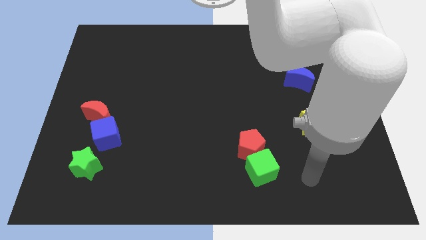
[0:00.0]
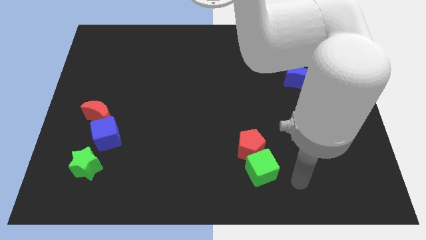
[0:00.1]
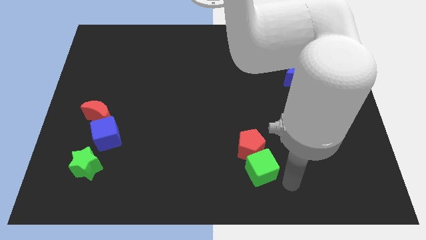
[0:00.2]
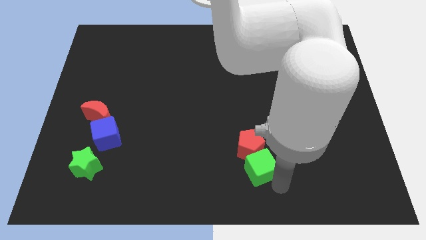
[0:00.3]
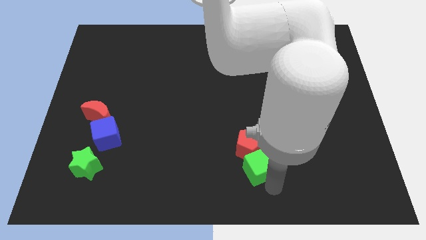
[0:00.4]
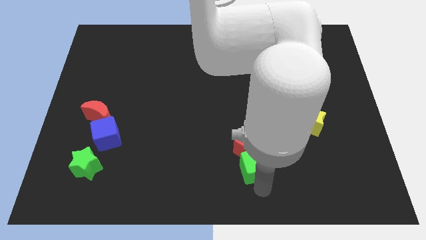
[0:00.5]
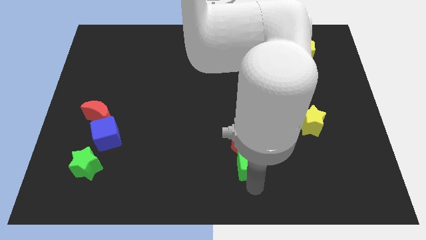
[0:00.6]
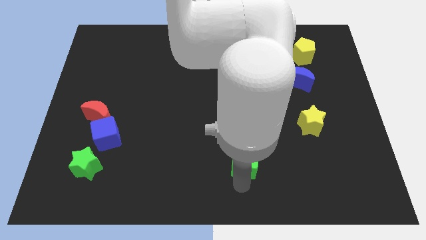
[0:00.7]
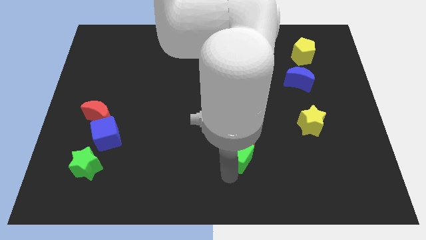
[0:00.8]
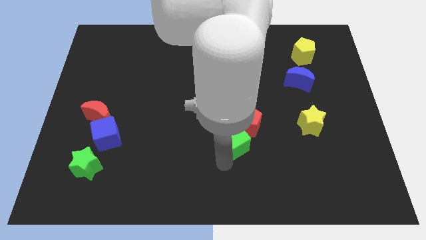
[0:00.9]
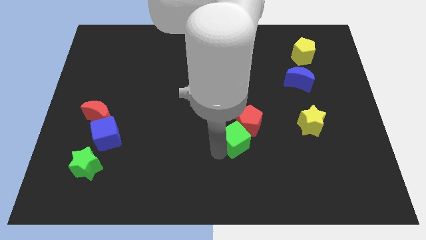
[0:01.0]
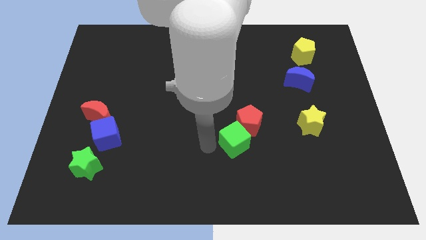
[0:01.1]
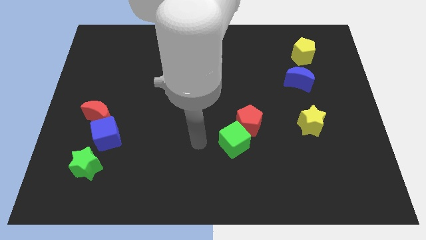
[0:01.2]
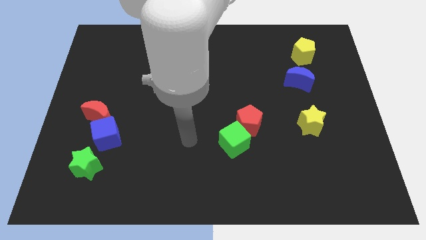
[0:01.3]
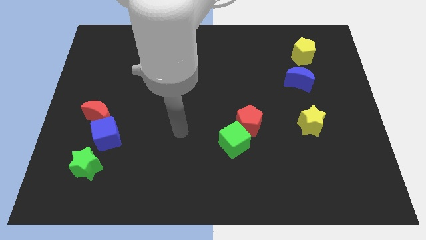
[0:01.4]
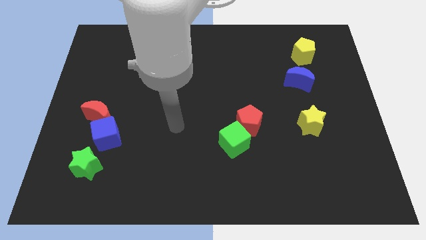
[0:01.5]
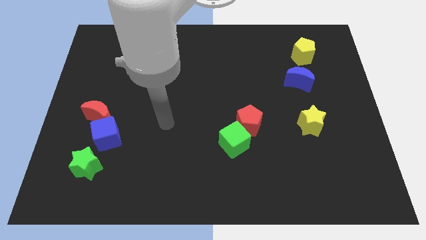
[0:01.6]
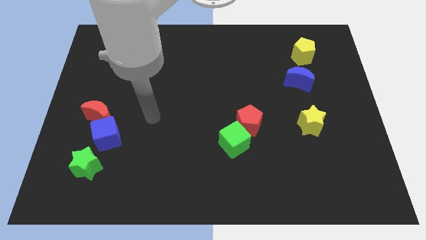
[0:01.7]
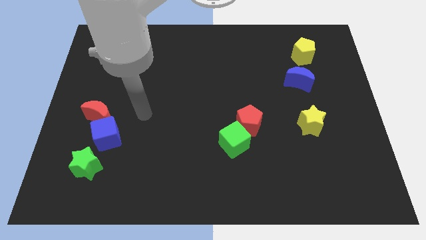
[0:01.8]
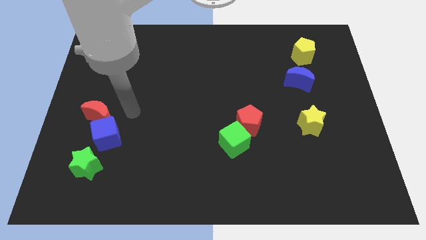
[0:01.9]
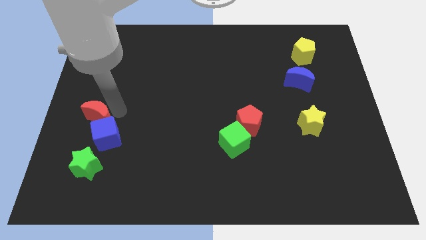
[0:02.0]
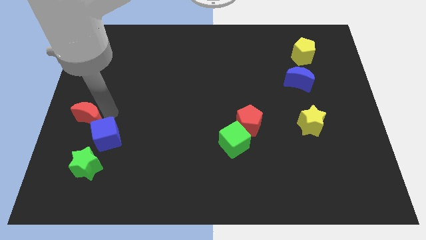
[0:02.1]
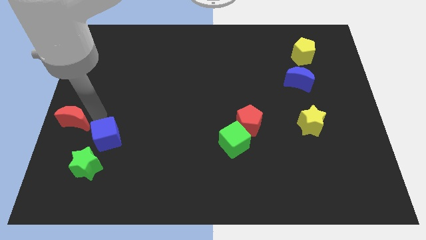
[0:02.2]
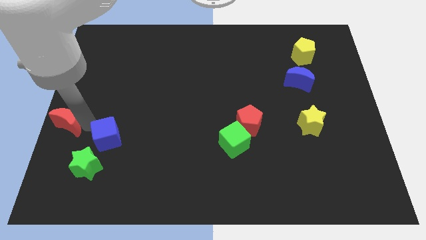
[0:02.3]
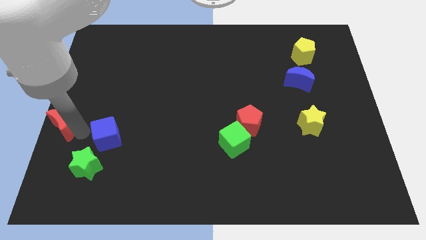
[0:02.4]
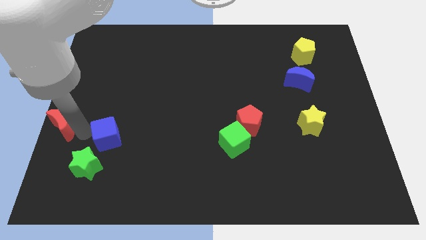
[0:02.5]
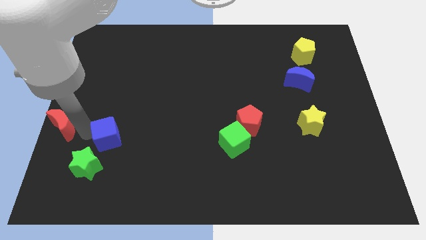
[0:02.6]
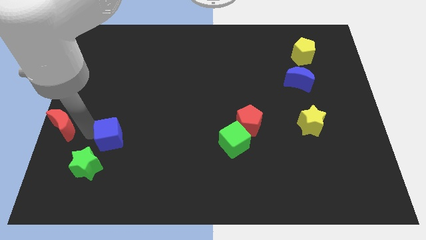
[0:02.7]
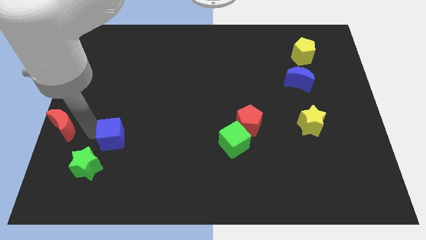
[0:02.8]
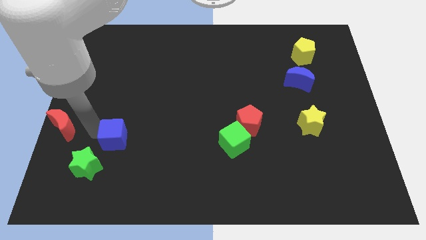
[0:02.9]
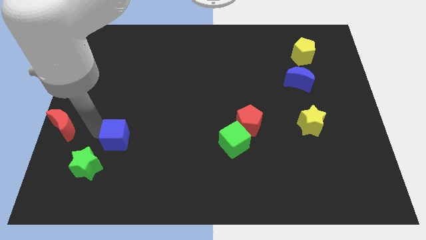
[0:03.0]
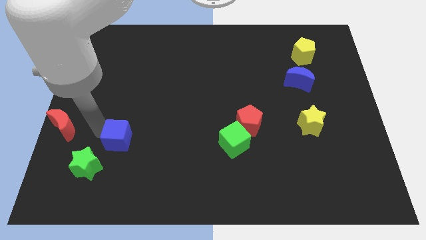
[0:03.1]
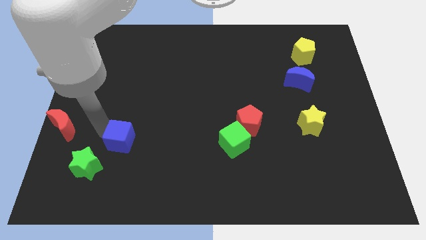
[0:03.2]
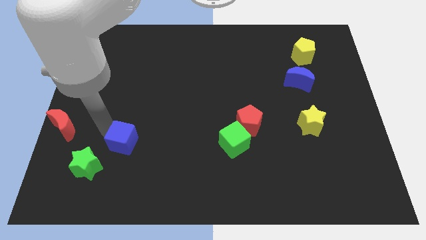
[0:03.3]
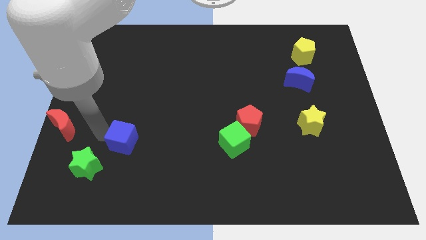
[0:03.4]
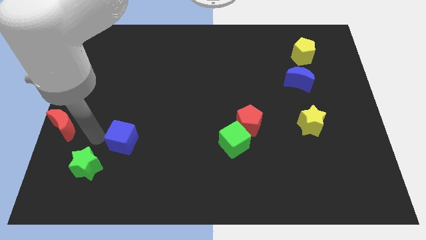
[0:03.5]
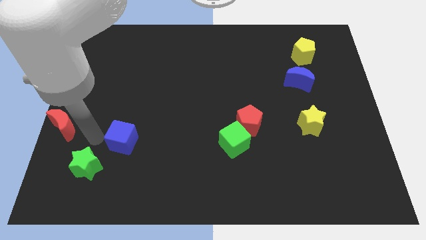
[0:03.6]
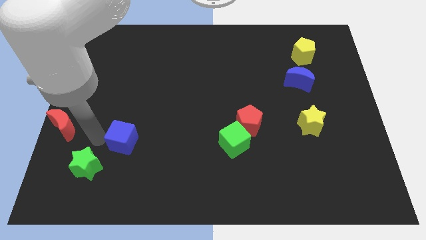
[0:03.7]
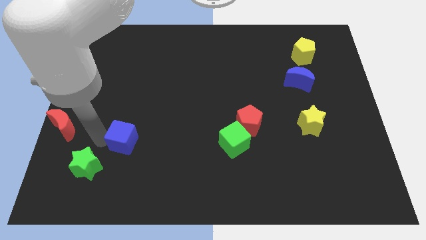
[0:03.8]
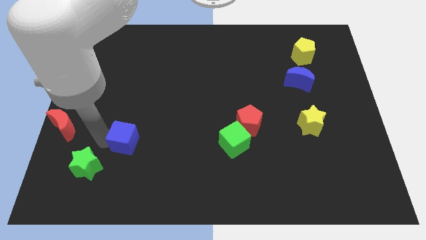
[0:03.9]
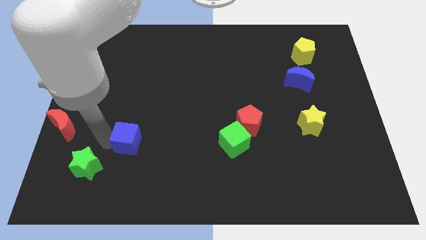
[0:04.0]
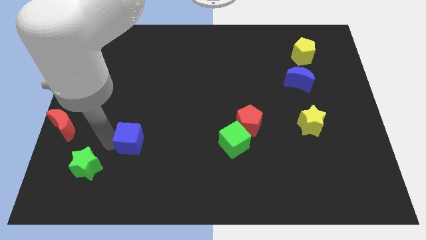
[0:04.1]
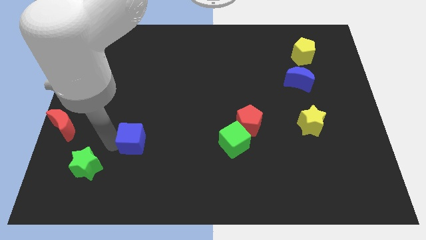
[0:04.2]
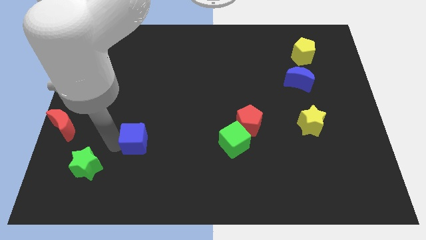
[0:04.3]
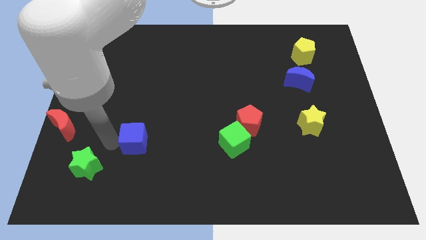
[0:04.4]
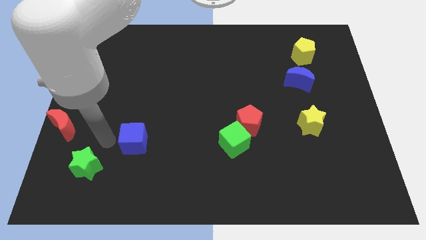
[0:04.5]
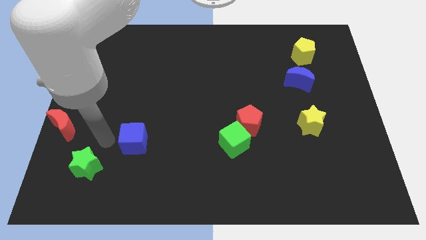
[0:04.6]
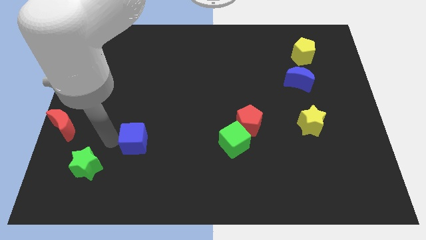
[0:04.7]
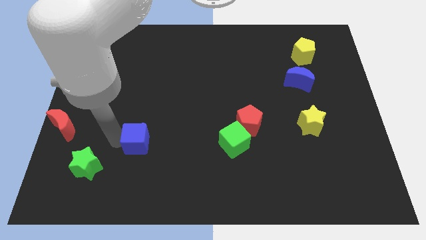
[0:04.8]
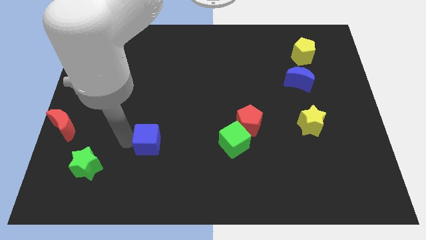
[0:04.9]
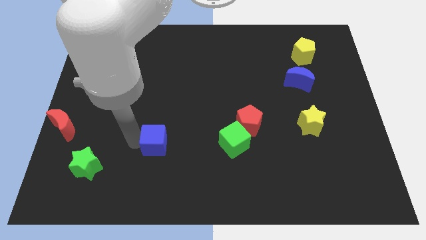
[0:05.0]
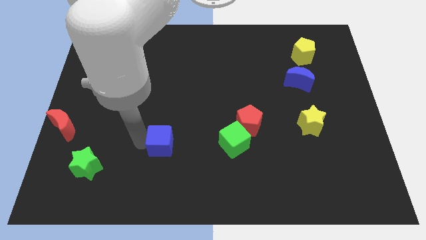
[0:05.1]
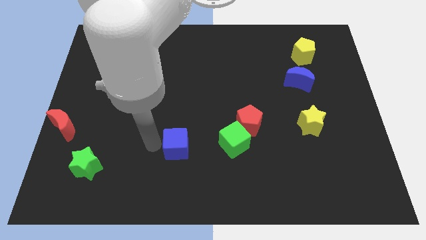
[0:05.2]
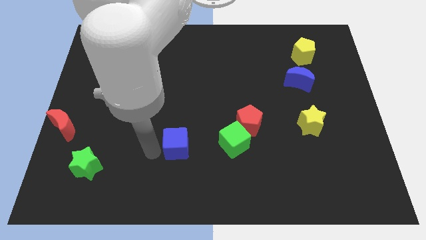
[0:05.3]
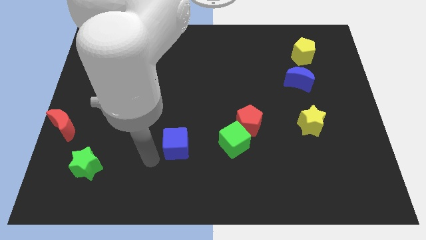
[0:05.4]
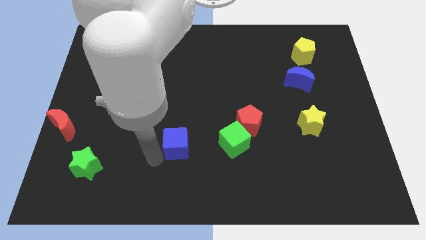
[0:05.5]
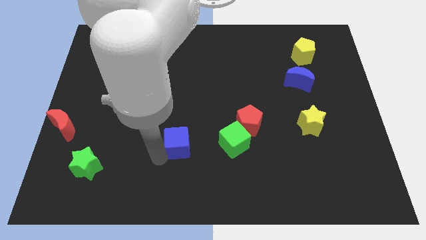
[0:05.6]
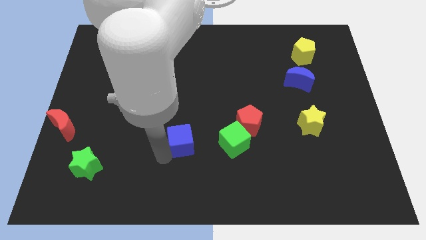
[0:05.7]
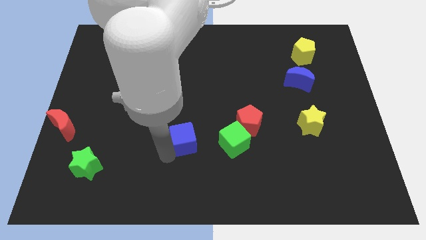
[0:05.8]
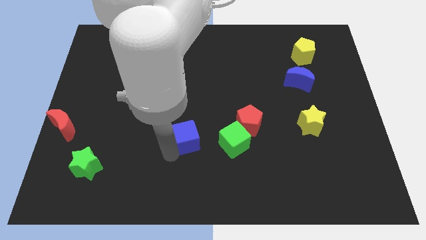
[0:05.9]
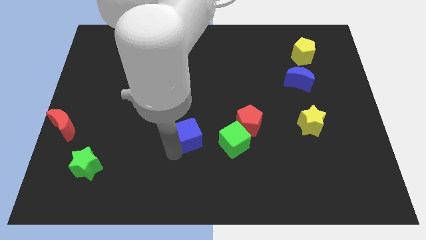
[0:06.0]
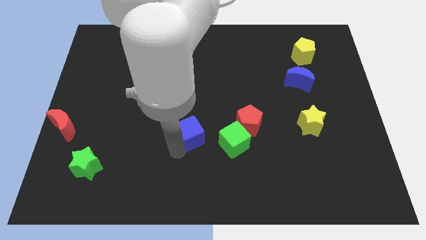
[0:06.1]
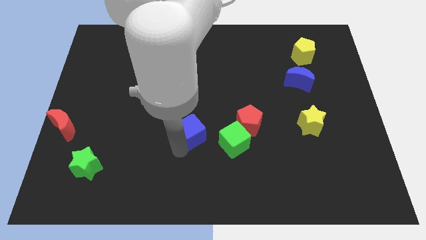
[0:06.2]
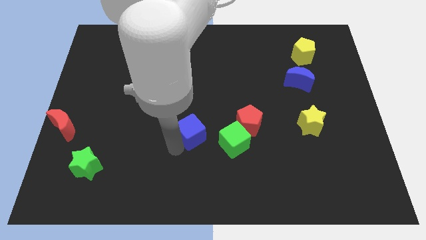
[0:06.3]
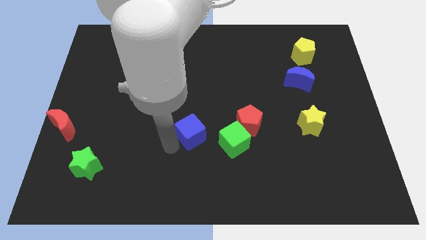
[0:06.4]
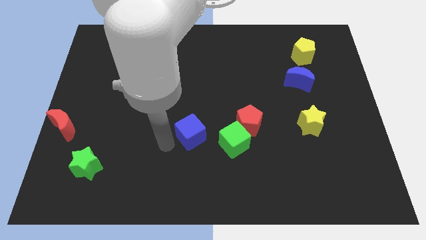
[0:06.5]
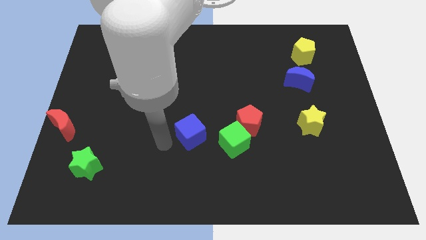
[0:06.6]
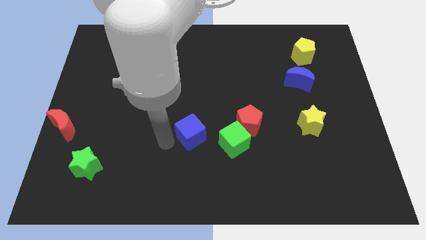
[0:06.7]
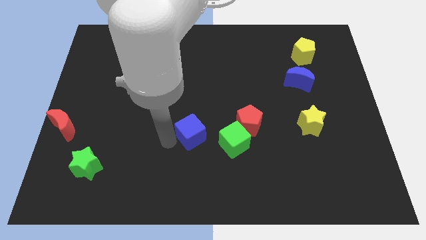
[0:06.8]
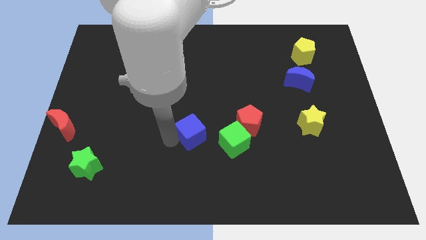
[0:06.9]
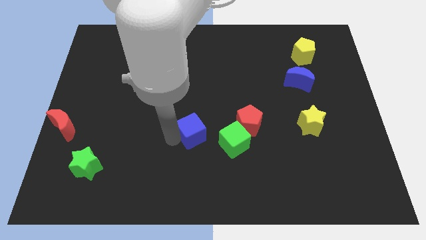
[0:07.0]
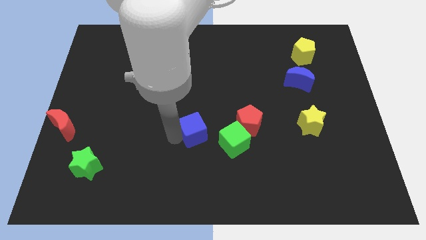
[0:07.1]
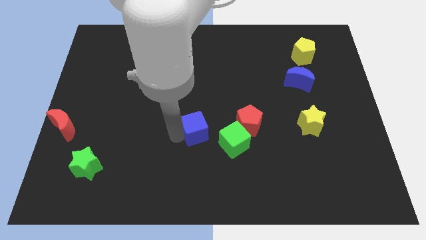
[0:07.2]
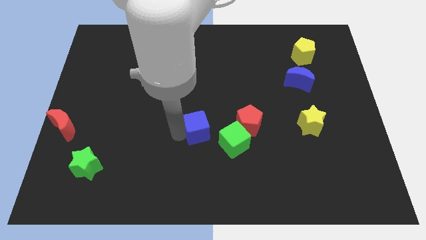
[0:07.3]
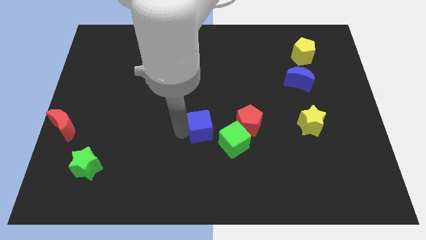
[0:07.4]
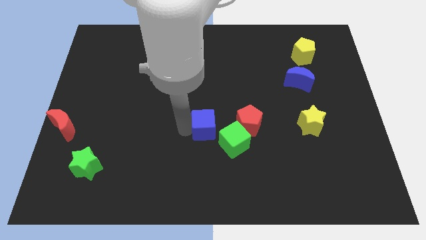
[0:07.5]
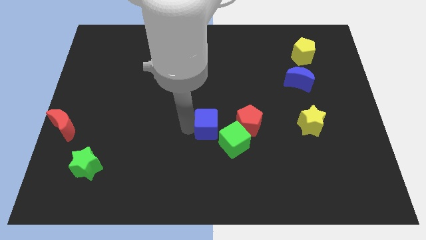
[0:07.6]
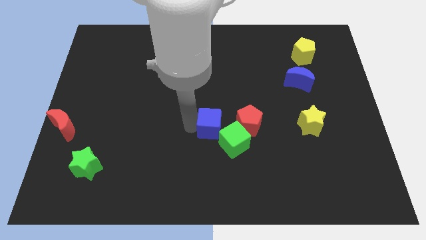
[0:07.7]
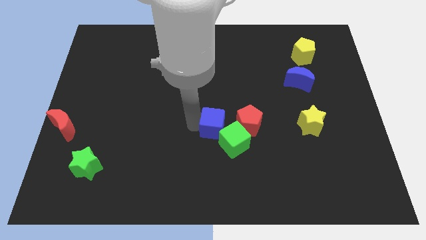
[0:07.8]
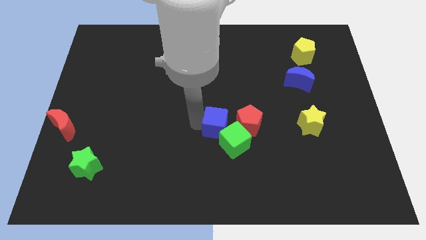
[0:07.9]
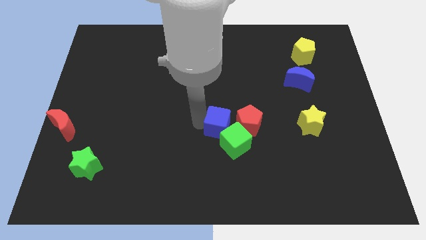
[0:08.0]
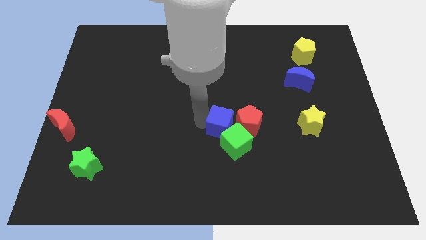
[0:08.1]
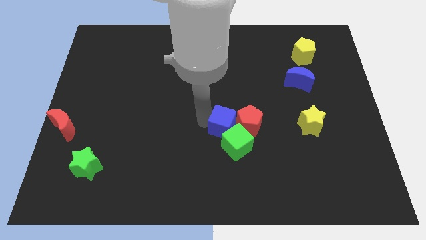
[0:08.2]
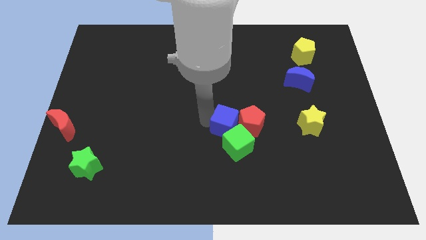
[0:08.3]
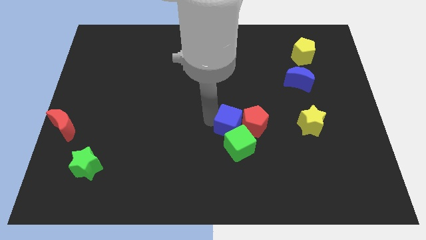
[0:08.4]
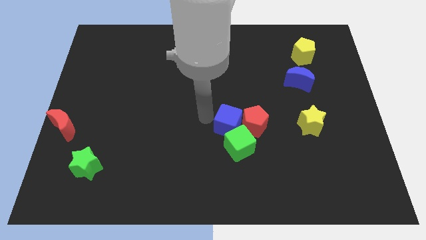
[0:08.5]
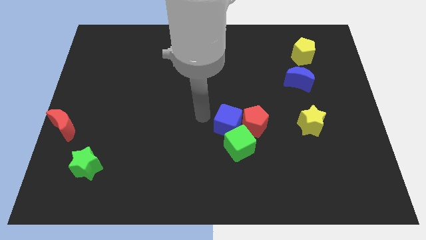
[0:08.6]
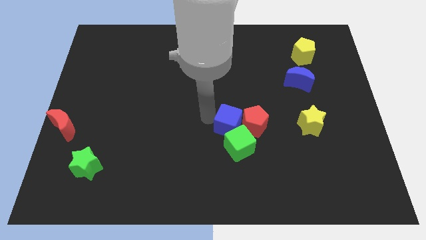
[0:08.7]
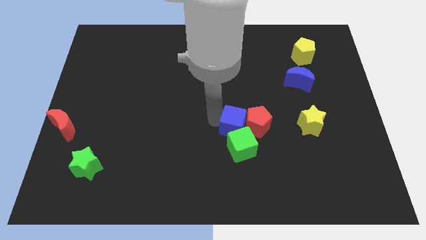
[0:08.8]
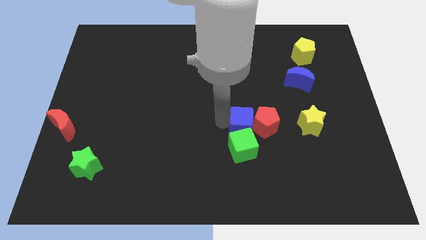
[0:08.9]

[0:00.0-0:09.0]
move the blue cube to the top right side of the green cube
